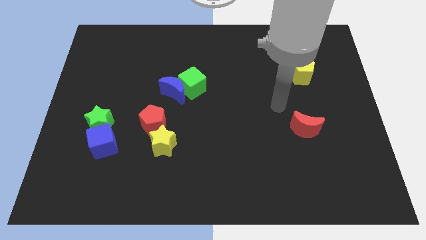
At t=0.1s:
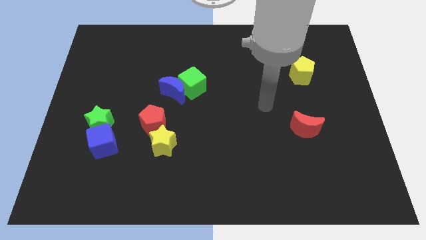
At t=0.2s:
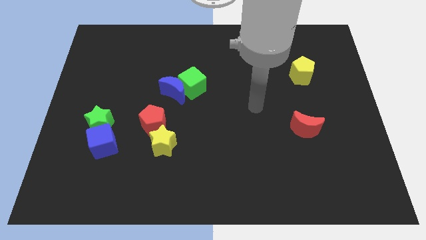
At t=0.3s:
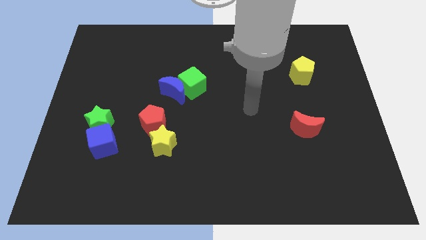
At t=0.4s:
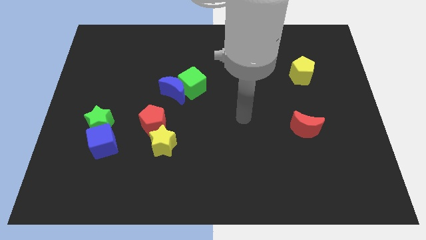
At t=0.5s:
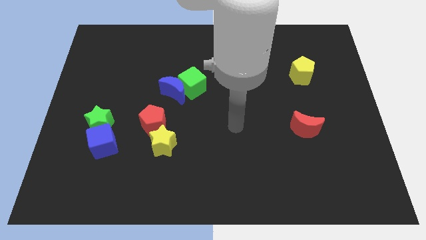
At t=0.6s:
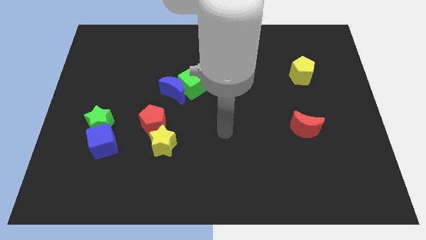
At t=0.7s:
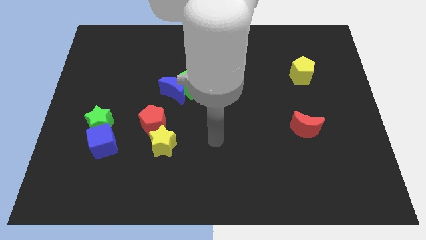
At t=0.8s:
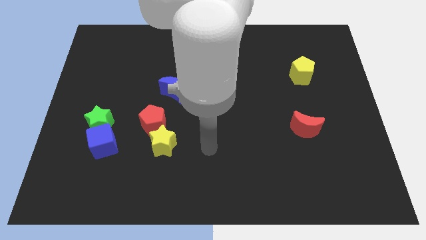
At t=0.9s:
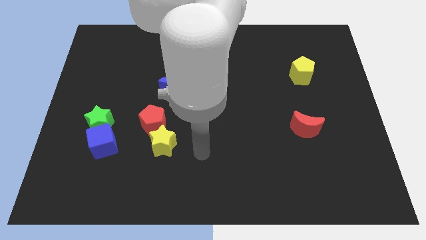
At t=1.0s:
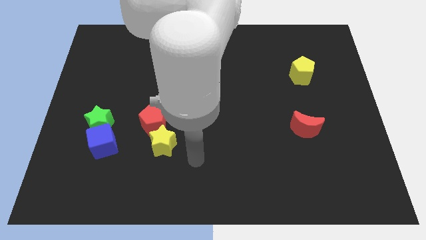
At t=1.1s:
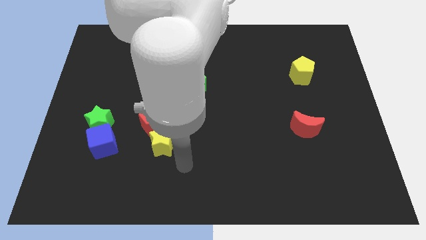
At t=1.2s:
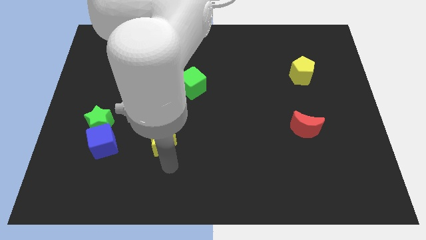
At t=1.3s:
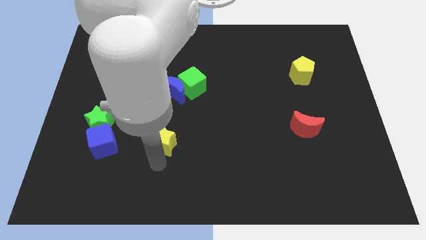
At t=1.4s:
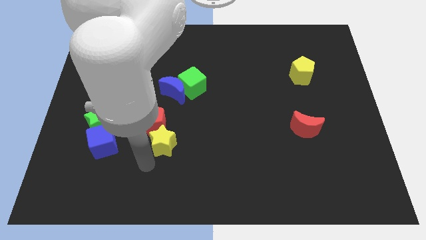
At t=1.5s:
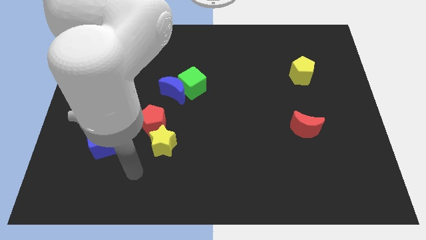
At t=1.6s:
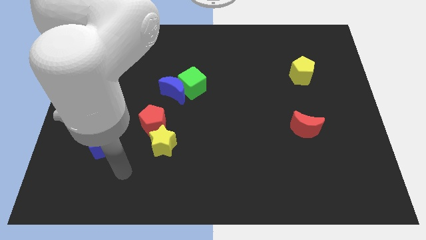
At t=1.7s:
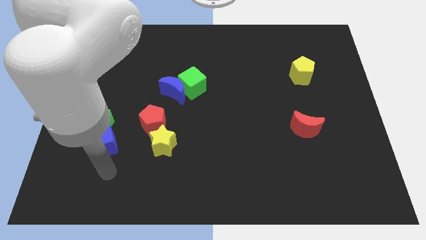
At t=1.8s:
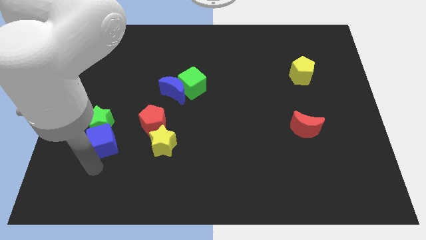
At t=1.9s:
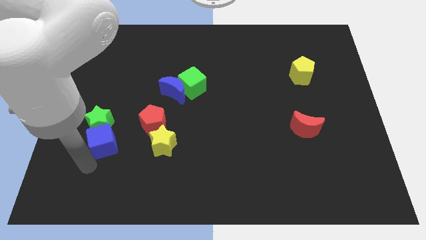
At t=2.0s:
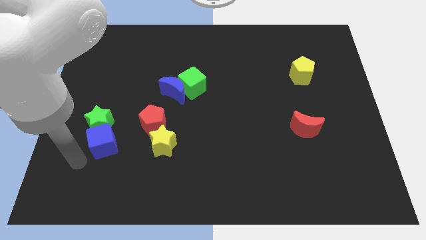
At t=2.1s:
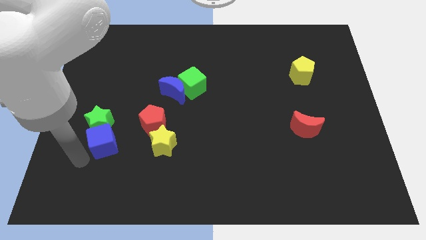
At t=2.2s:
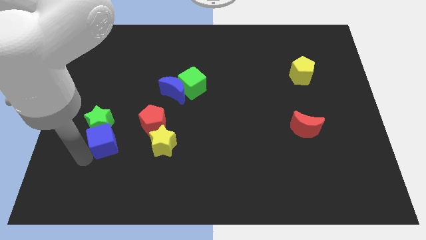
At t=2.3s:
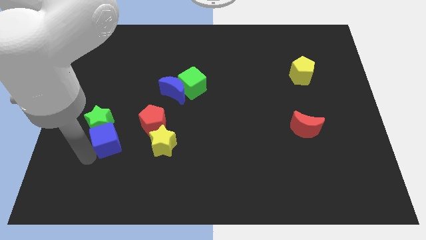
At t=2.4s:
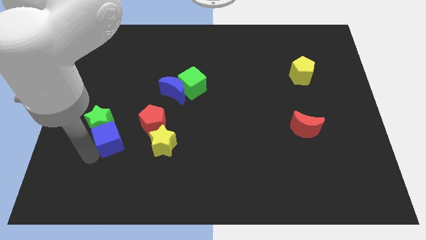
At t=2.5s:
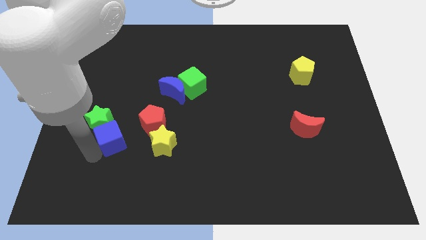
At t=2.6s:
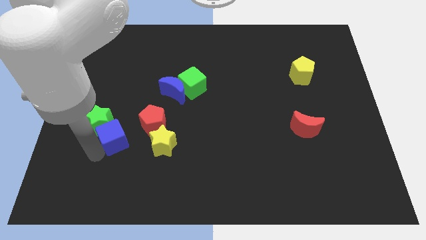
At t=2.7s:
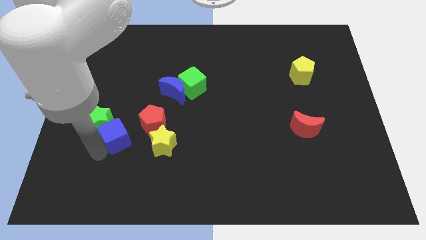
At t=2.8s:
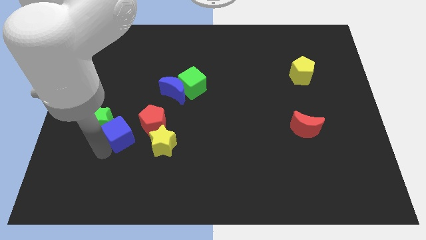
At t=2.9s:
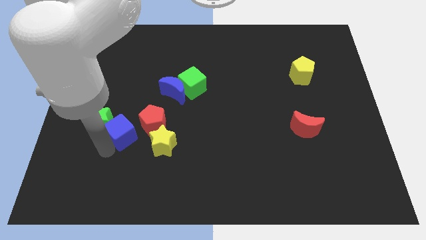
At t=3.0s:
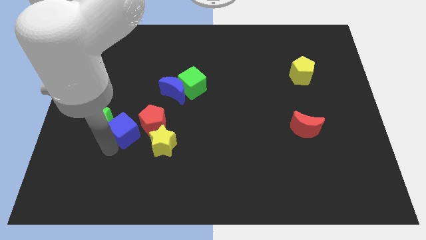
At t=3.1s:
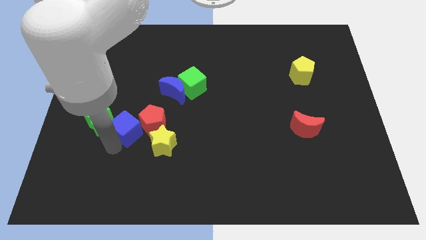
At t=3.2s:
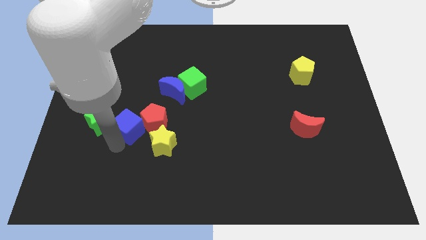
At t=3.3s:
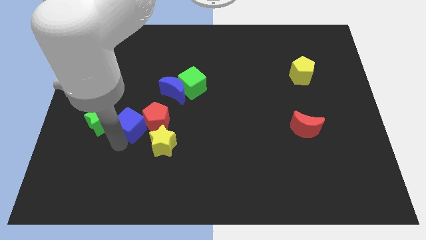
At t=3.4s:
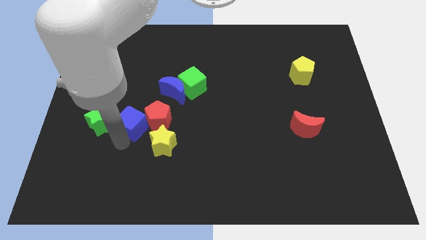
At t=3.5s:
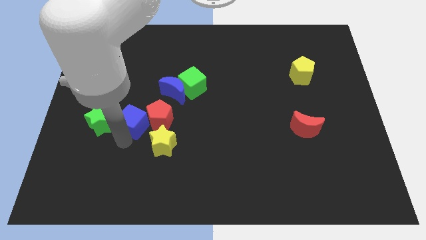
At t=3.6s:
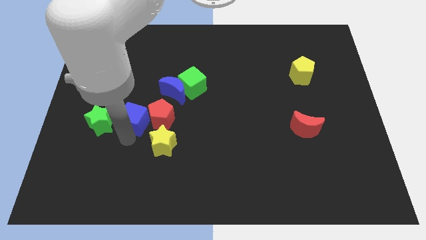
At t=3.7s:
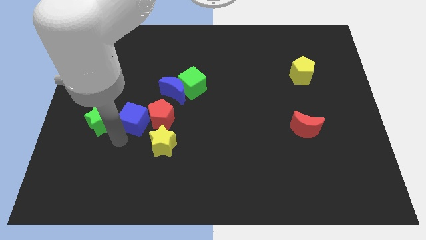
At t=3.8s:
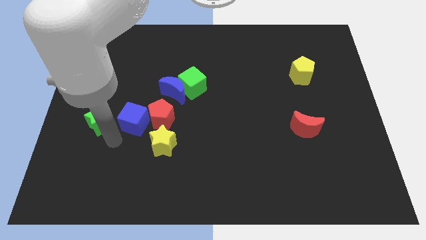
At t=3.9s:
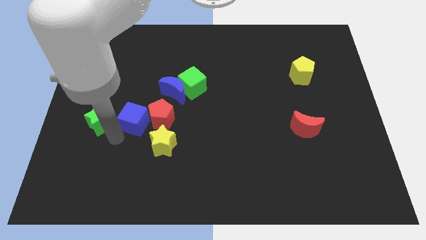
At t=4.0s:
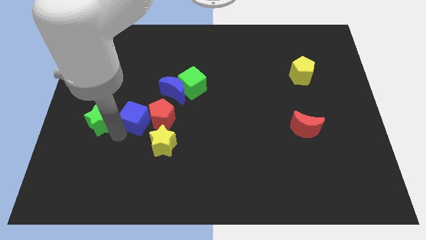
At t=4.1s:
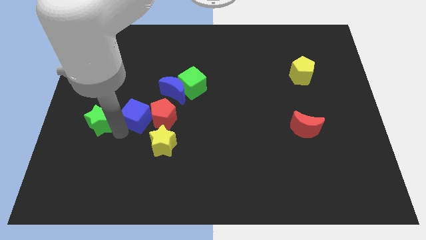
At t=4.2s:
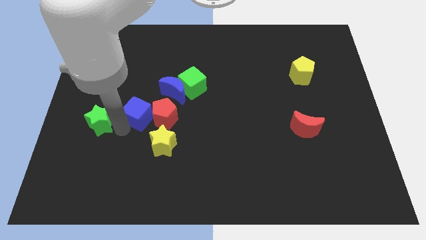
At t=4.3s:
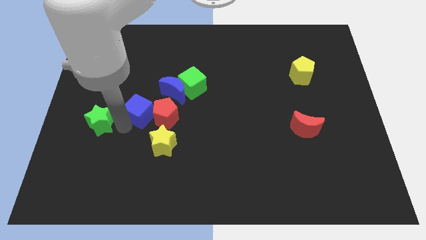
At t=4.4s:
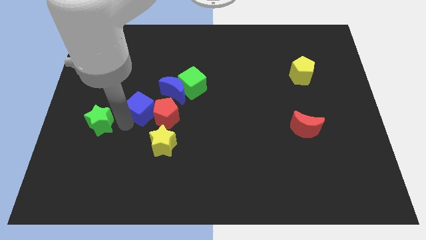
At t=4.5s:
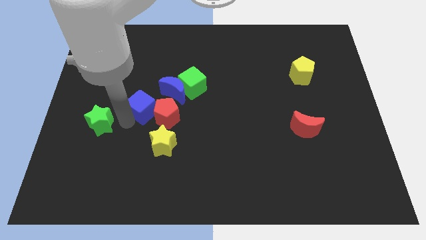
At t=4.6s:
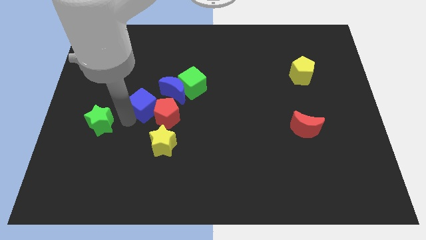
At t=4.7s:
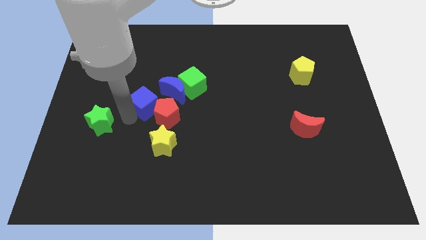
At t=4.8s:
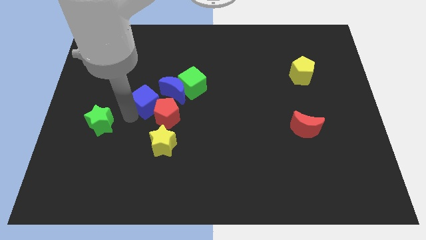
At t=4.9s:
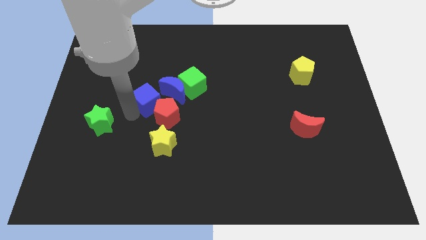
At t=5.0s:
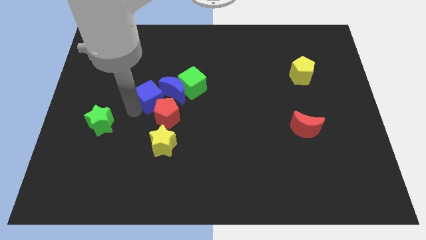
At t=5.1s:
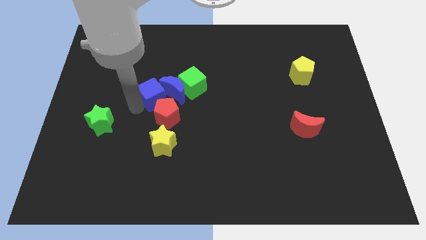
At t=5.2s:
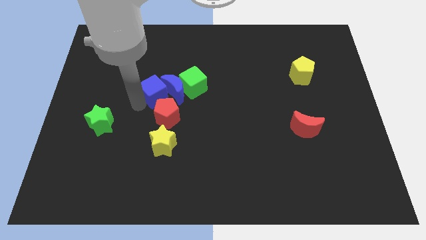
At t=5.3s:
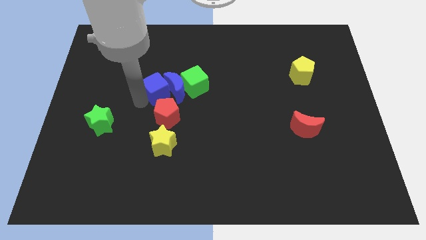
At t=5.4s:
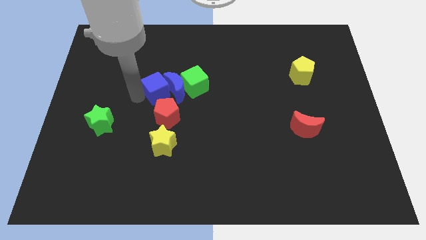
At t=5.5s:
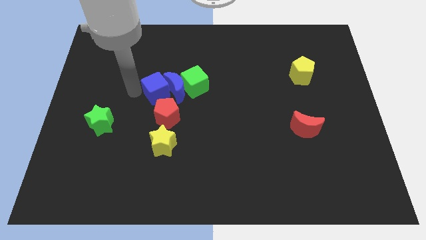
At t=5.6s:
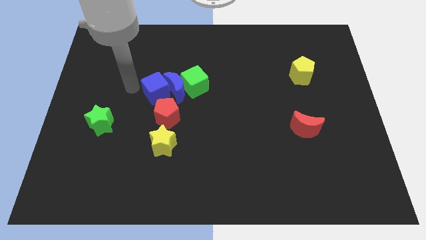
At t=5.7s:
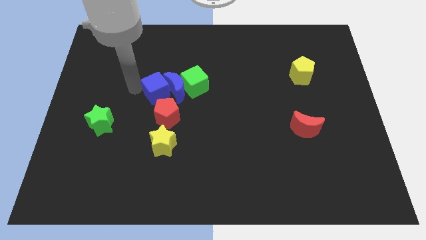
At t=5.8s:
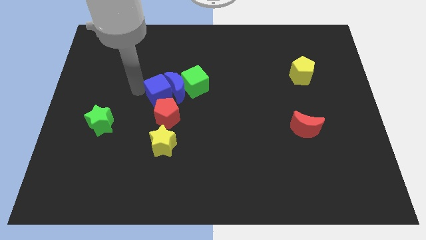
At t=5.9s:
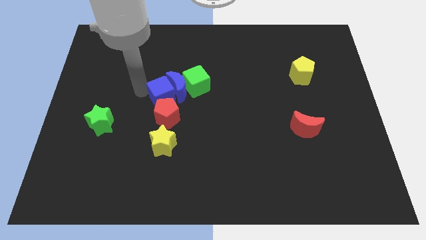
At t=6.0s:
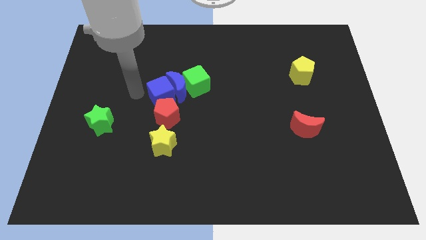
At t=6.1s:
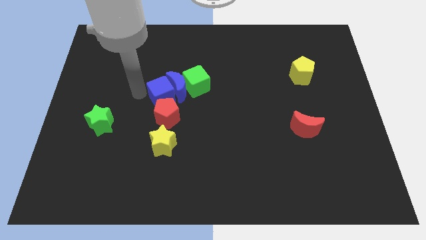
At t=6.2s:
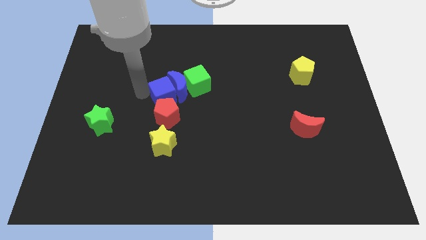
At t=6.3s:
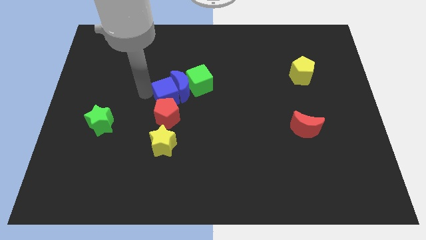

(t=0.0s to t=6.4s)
slide the blue cube to the top right of the red pentagon
